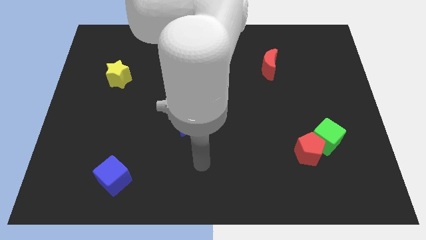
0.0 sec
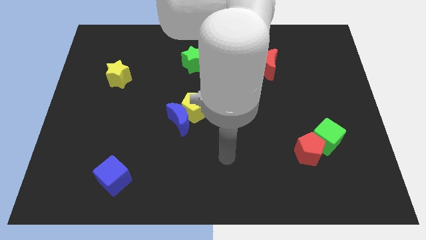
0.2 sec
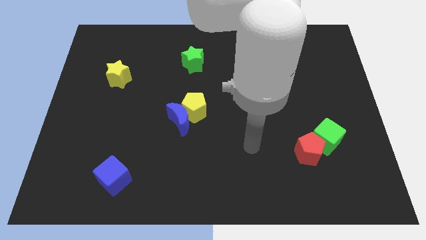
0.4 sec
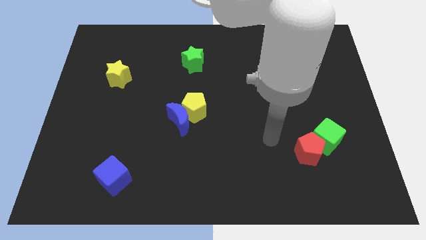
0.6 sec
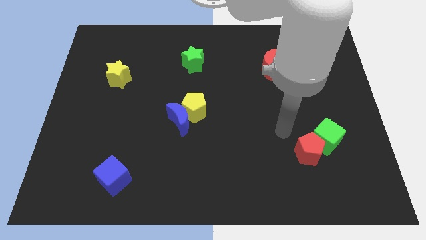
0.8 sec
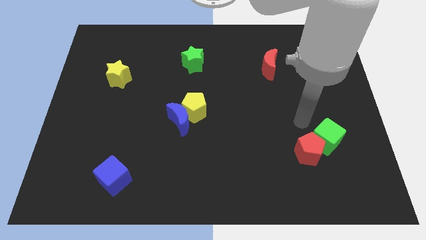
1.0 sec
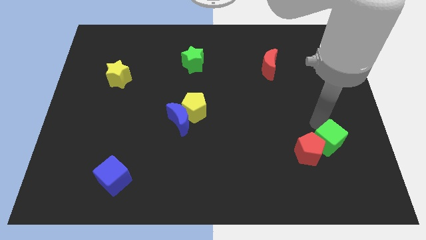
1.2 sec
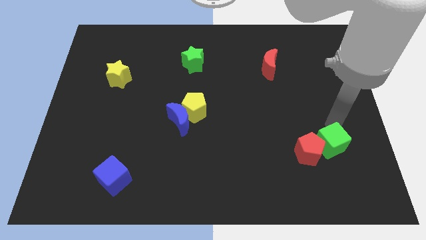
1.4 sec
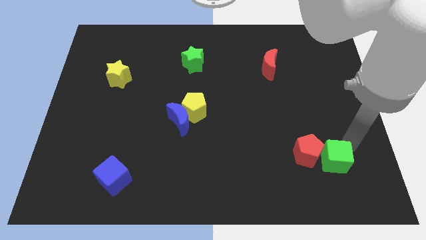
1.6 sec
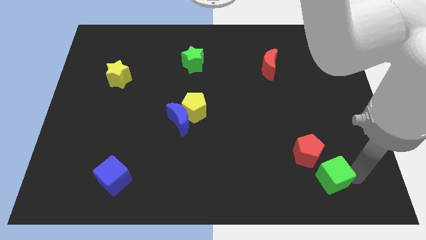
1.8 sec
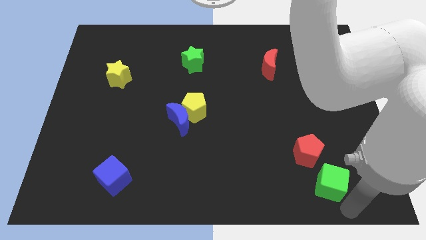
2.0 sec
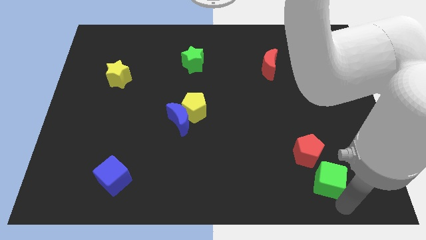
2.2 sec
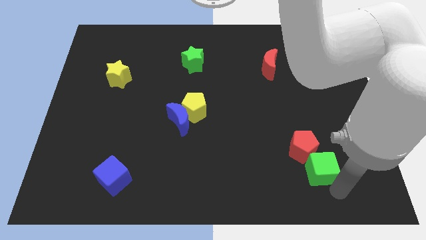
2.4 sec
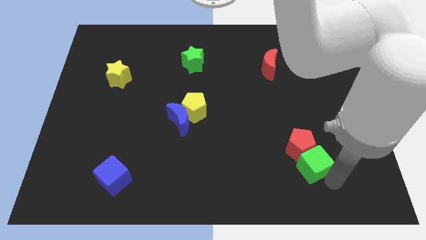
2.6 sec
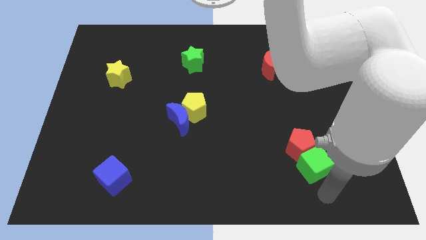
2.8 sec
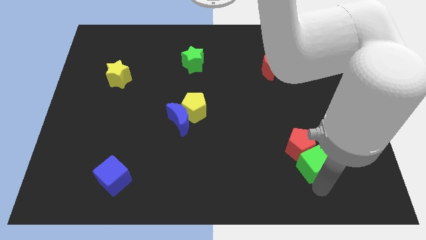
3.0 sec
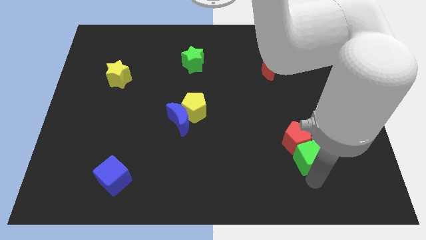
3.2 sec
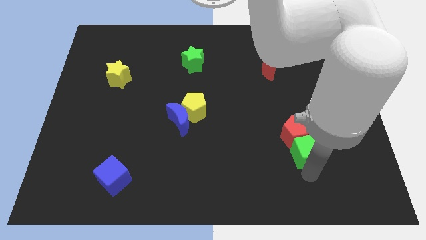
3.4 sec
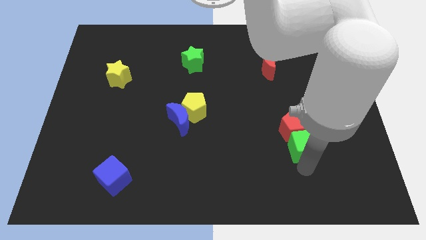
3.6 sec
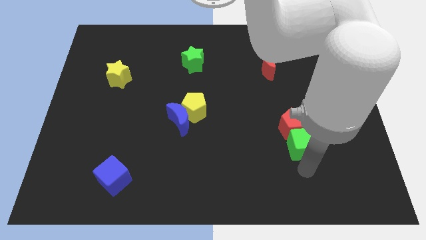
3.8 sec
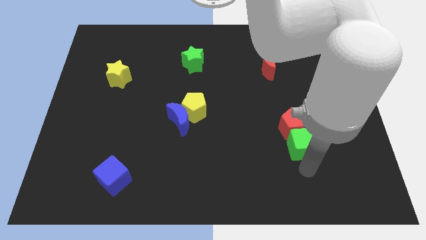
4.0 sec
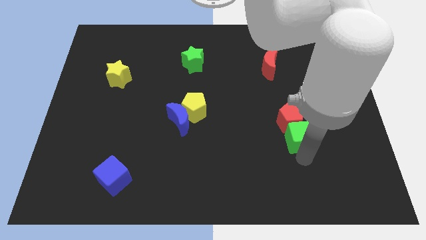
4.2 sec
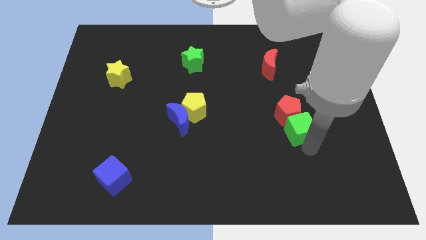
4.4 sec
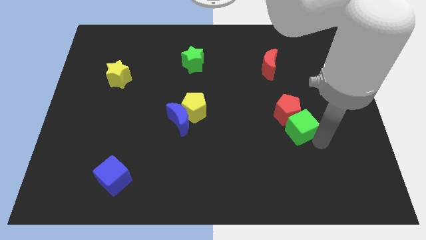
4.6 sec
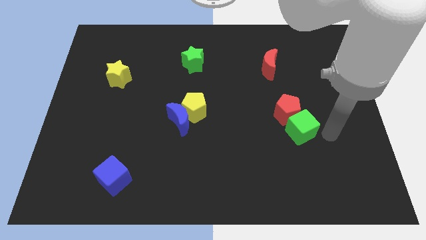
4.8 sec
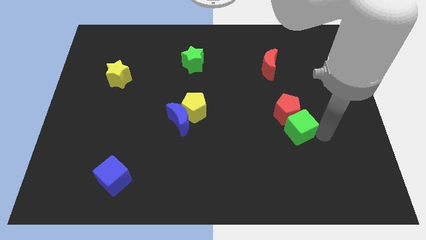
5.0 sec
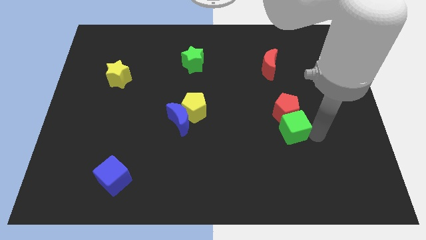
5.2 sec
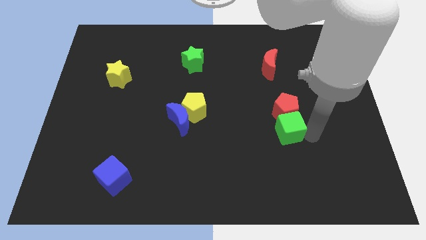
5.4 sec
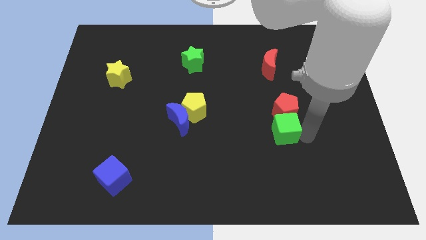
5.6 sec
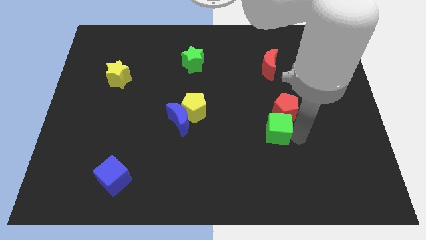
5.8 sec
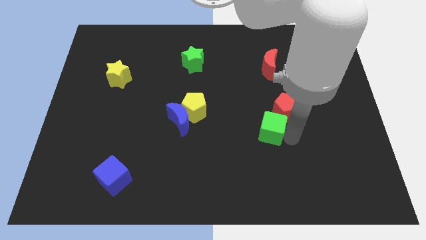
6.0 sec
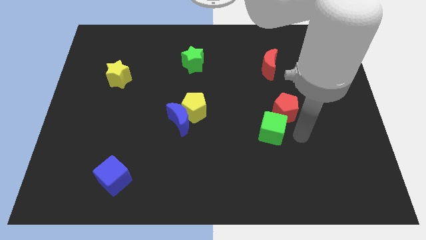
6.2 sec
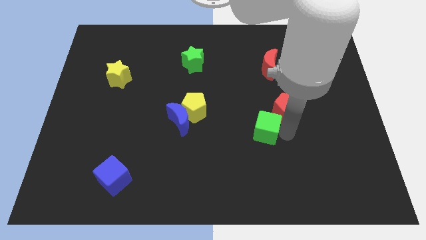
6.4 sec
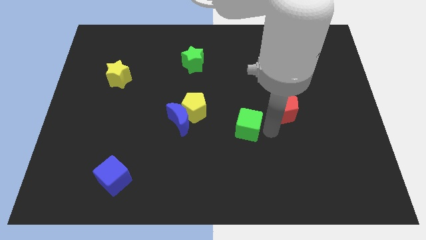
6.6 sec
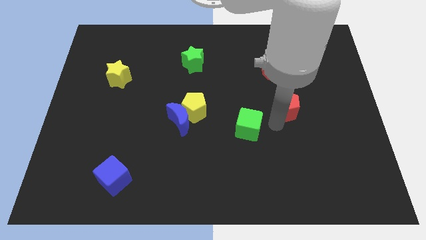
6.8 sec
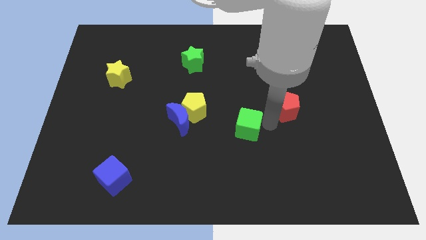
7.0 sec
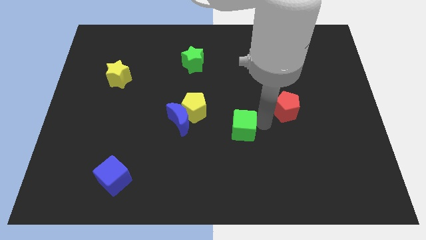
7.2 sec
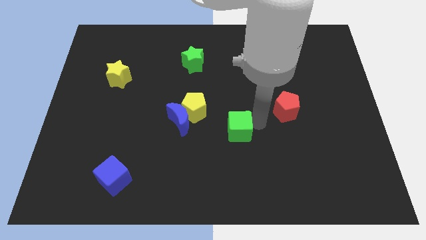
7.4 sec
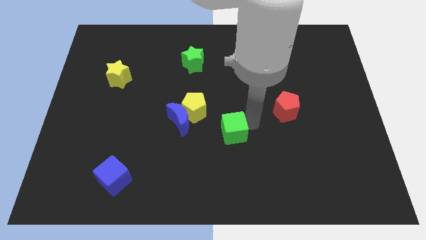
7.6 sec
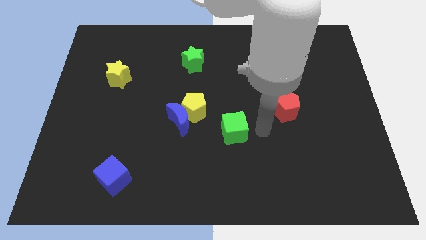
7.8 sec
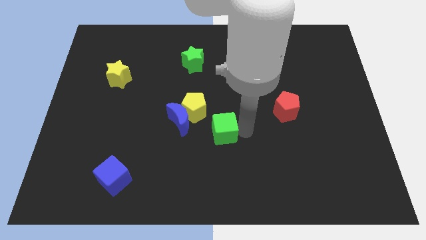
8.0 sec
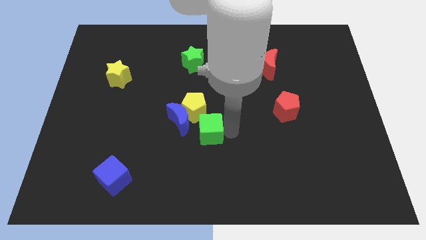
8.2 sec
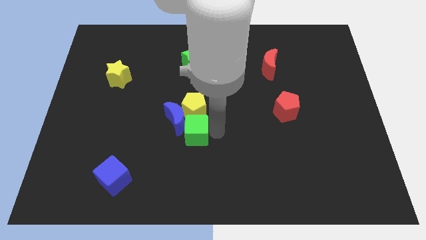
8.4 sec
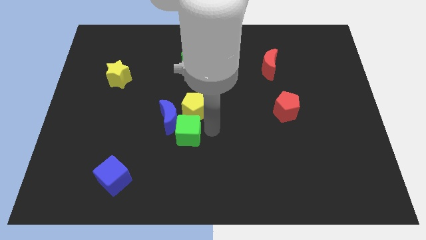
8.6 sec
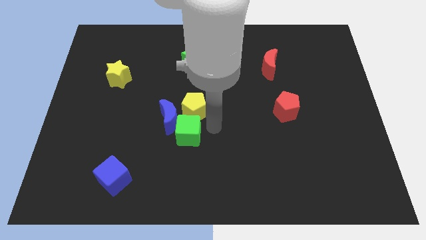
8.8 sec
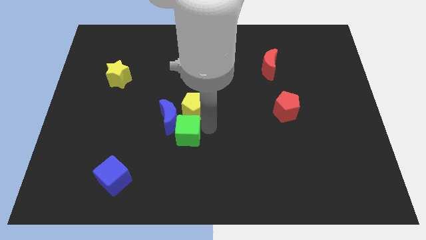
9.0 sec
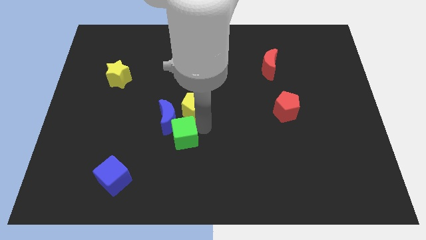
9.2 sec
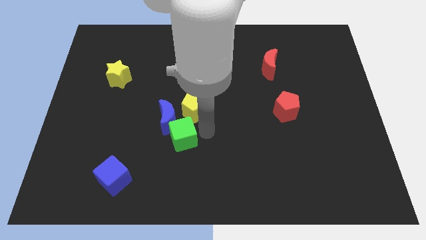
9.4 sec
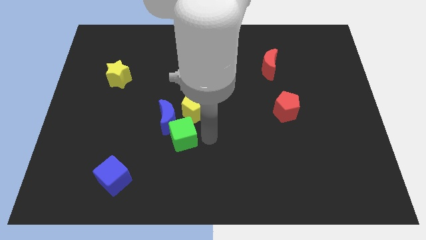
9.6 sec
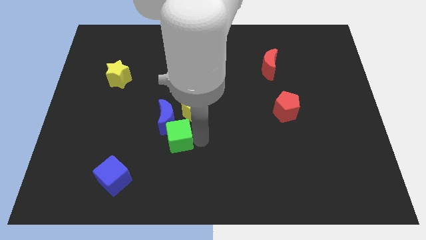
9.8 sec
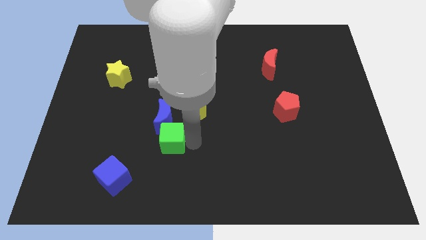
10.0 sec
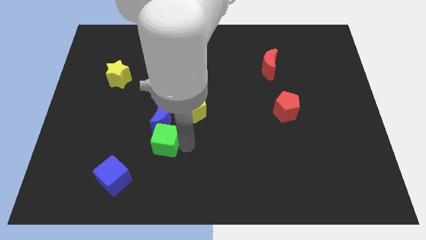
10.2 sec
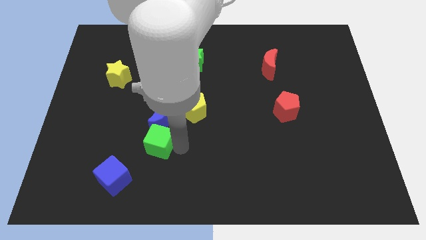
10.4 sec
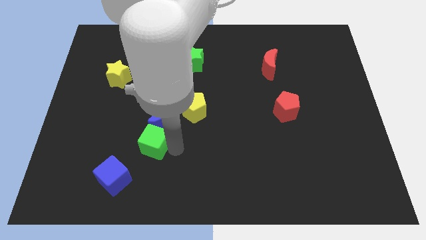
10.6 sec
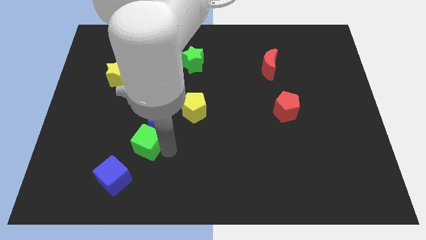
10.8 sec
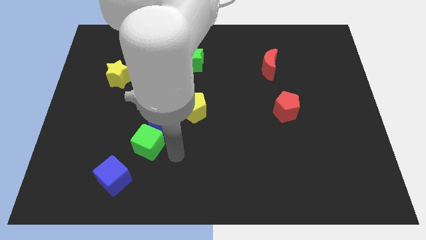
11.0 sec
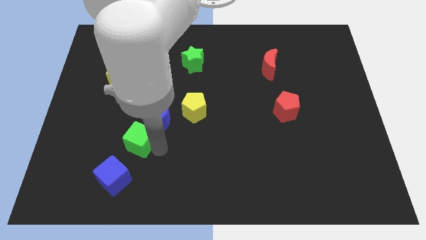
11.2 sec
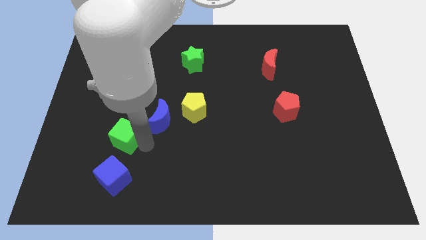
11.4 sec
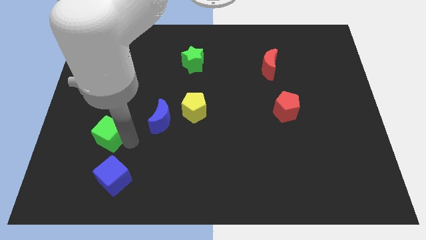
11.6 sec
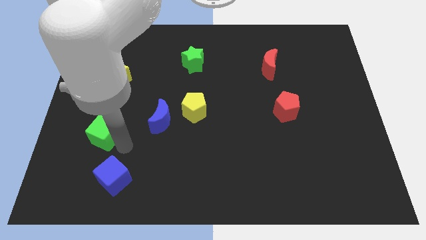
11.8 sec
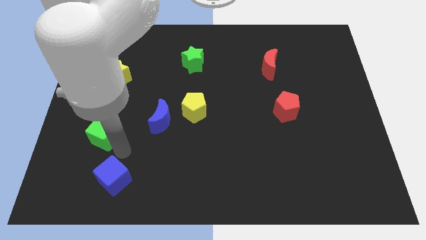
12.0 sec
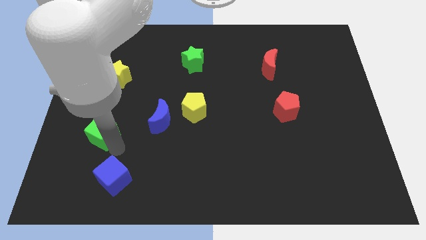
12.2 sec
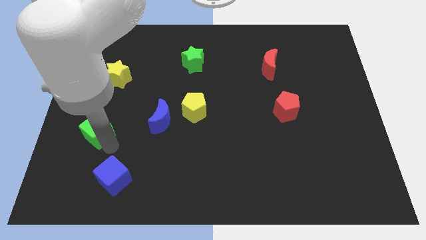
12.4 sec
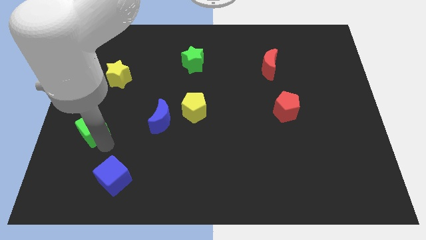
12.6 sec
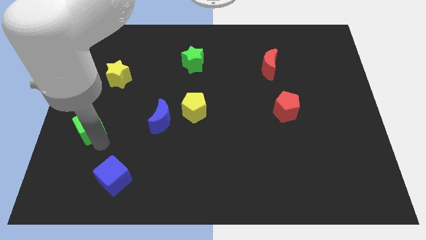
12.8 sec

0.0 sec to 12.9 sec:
move the green cube to the center left

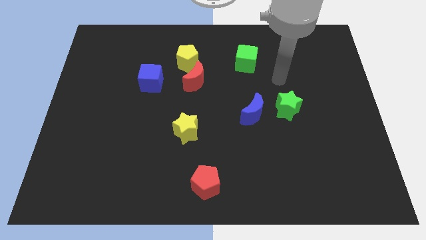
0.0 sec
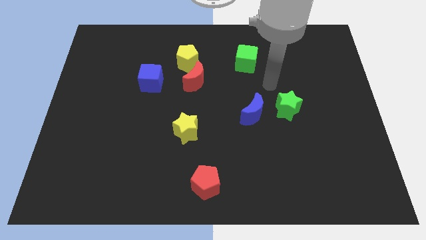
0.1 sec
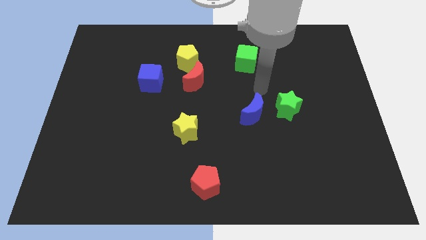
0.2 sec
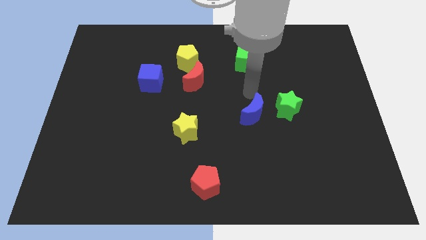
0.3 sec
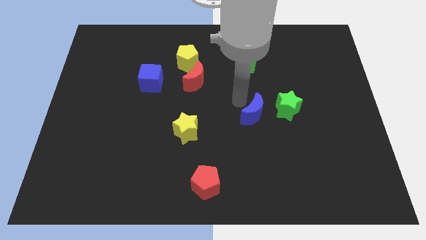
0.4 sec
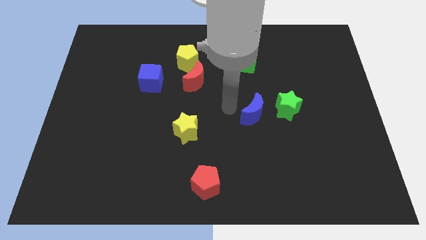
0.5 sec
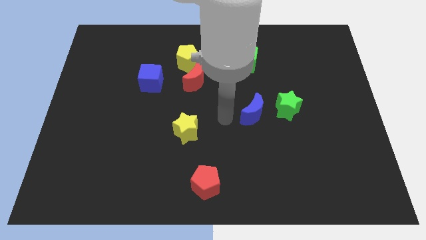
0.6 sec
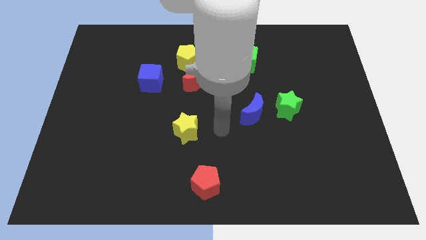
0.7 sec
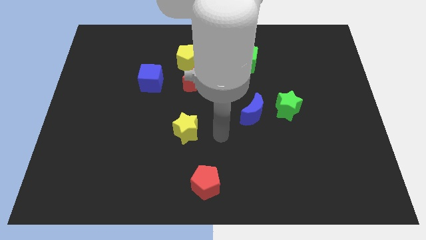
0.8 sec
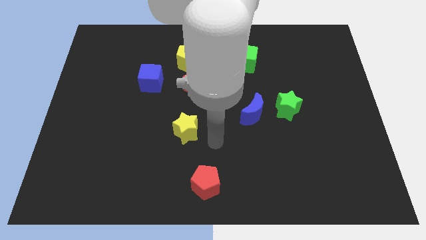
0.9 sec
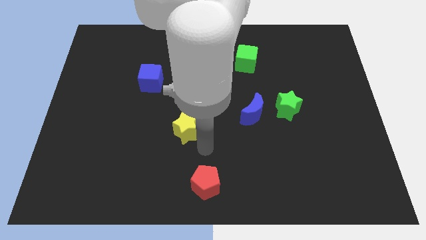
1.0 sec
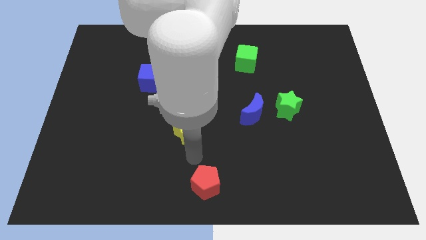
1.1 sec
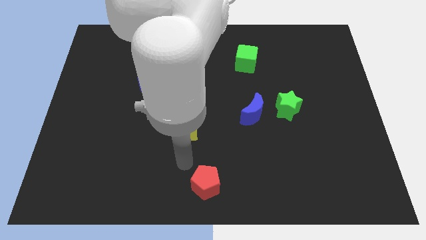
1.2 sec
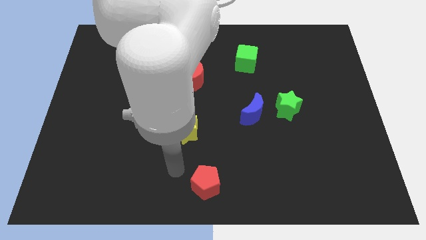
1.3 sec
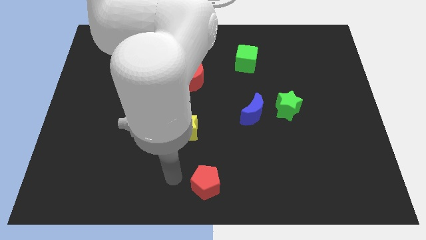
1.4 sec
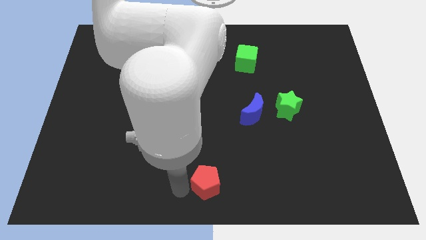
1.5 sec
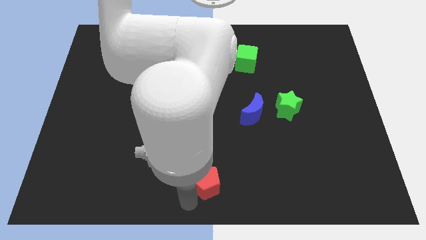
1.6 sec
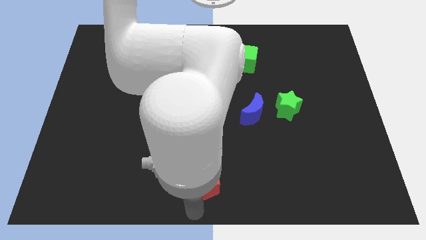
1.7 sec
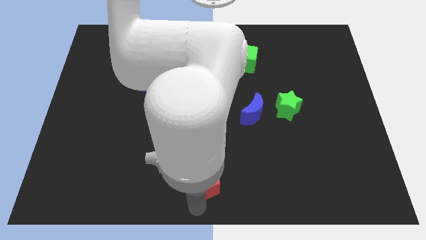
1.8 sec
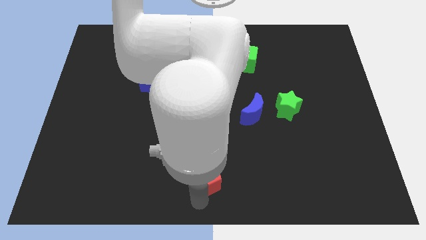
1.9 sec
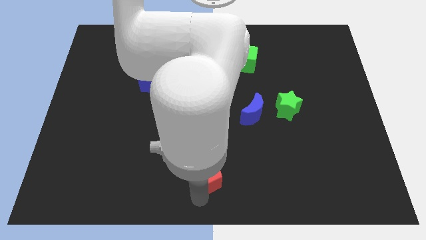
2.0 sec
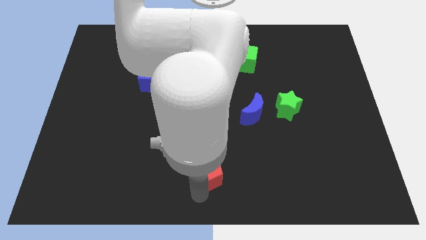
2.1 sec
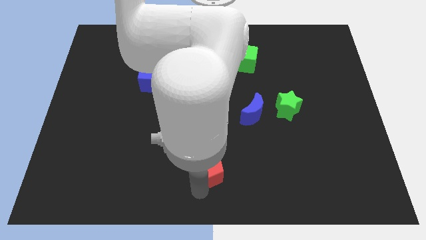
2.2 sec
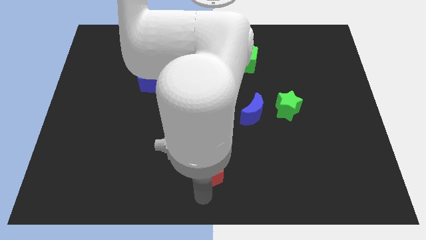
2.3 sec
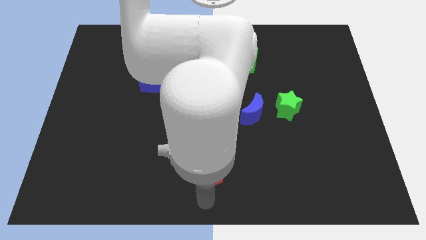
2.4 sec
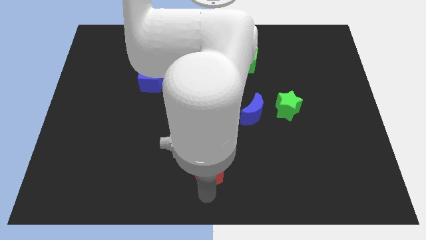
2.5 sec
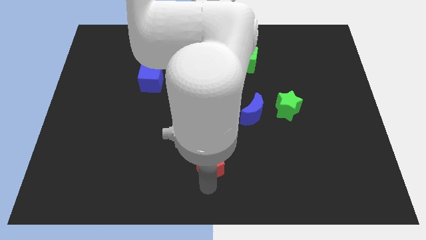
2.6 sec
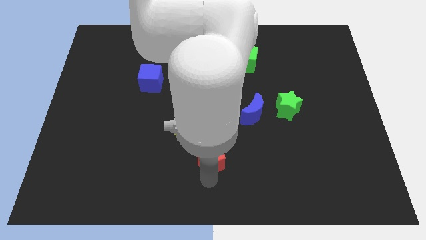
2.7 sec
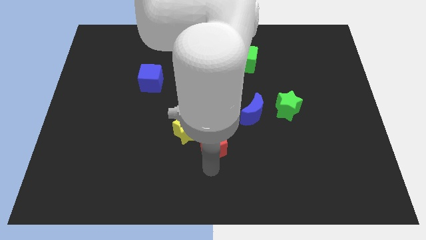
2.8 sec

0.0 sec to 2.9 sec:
slide the red pentagon to the middle of the board
